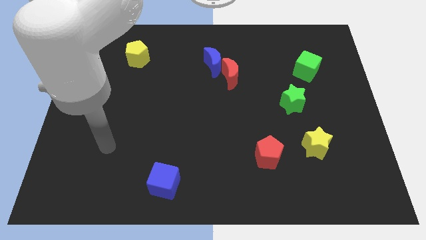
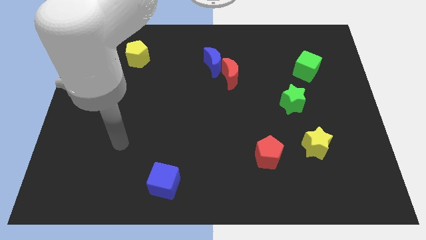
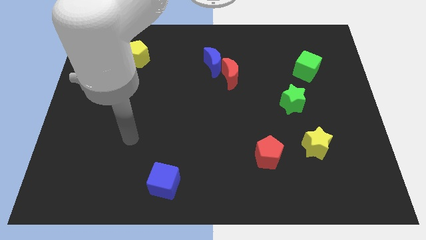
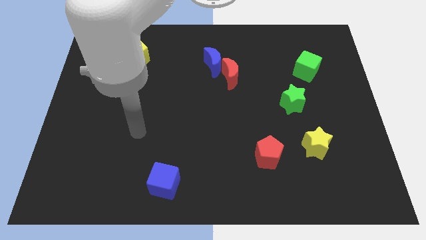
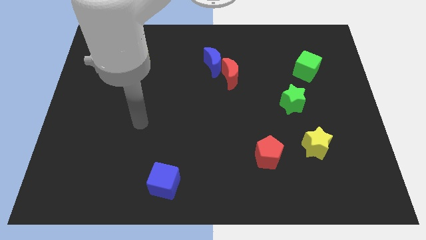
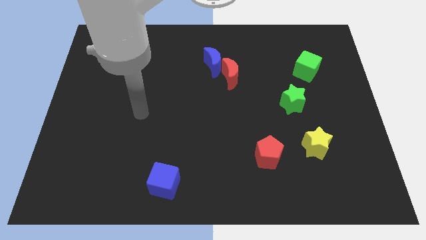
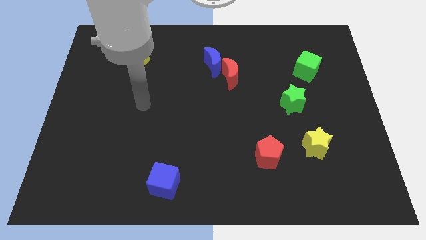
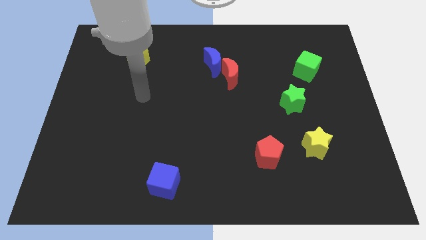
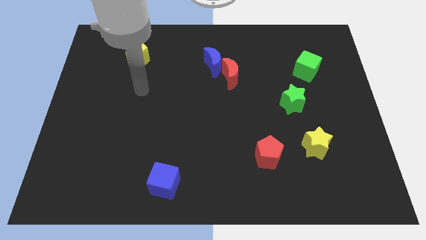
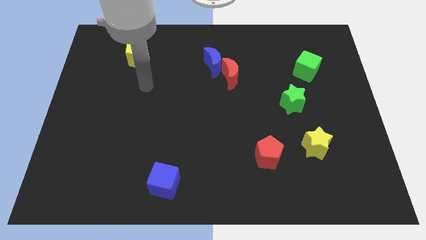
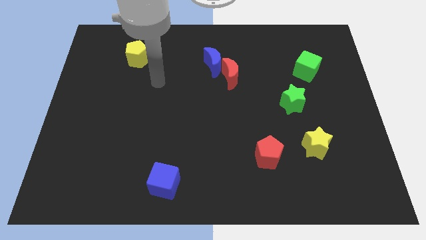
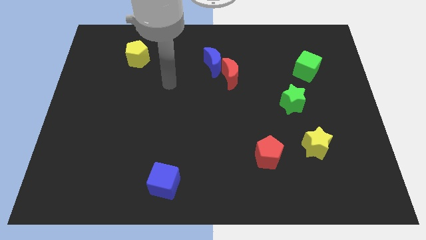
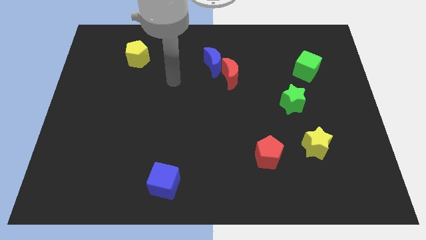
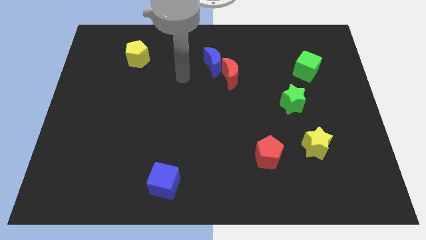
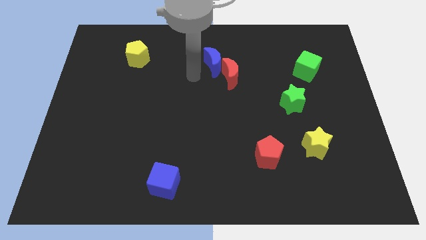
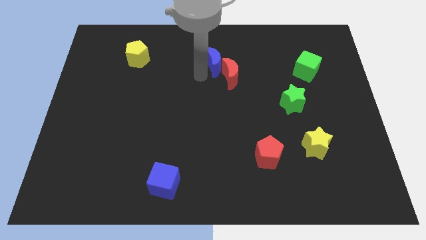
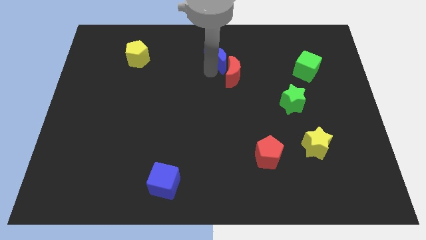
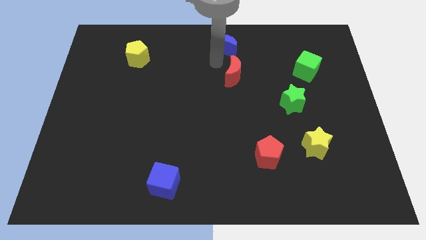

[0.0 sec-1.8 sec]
move the red moon away from the blue moon

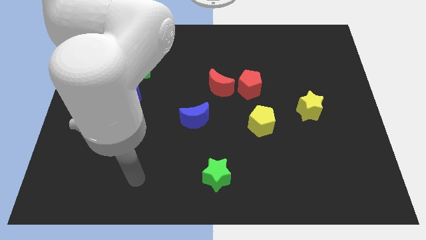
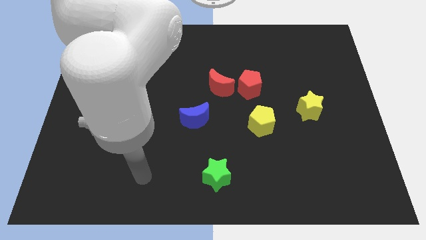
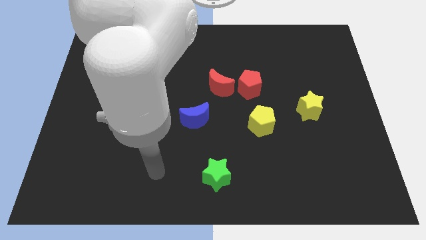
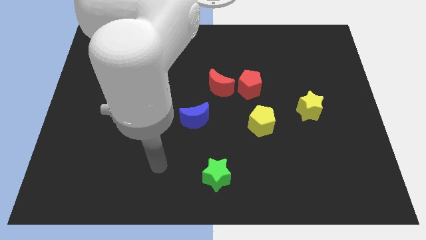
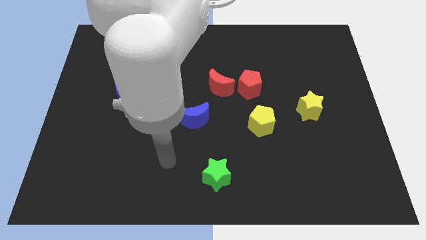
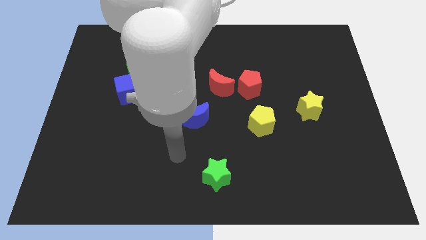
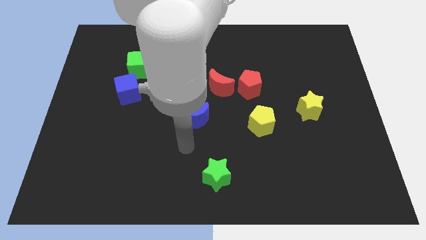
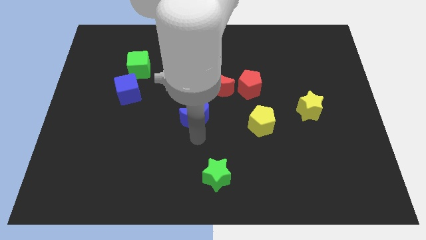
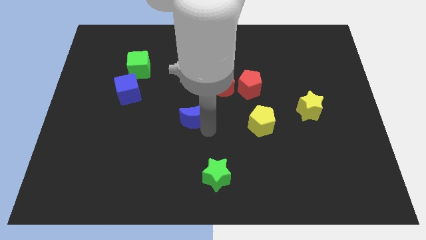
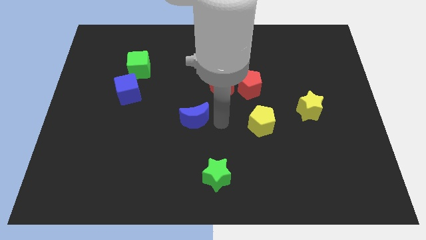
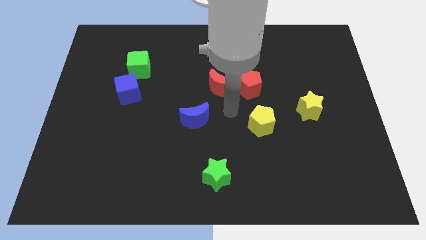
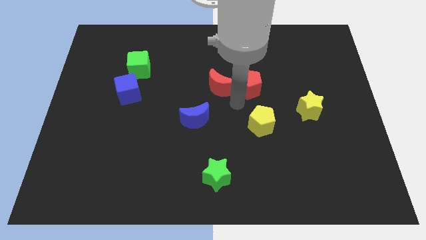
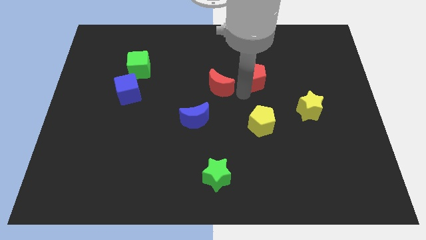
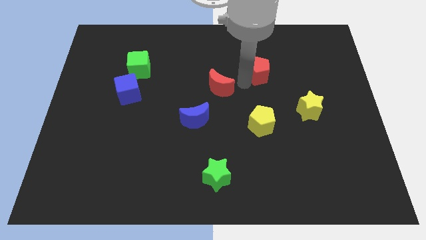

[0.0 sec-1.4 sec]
move the red moon away from the red pentagon

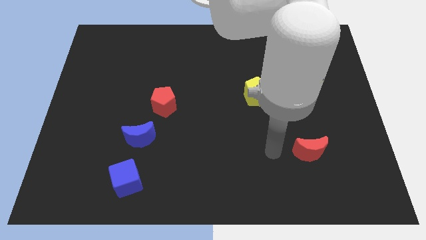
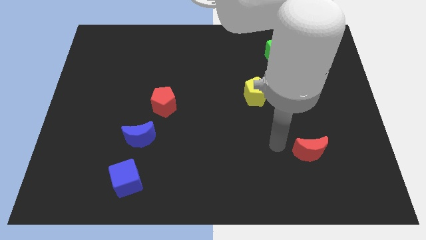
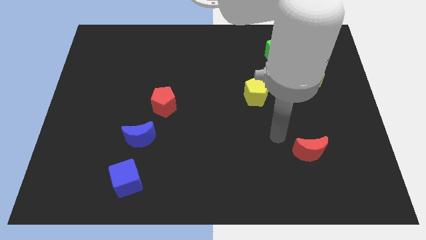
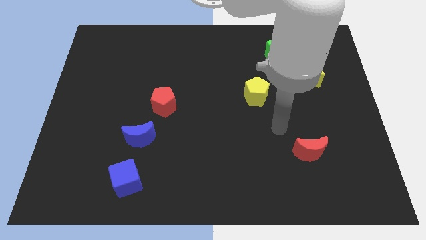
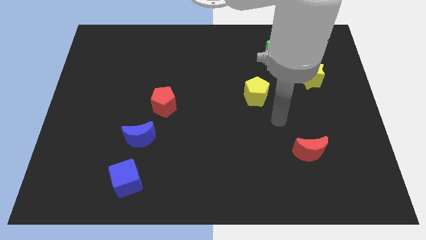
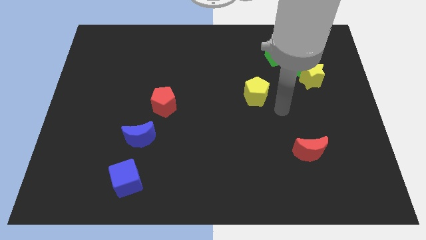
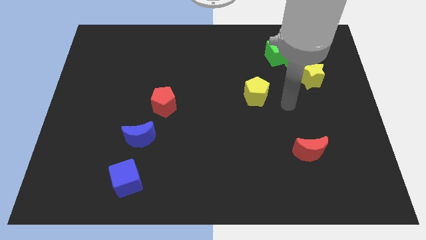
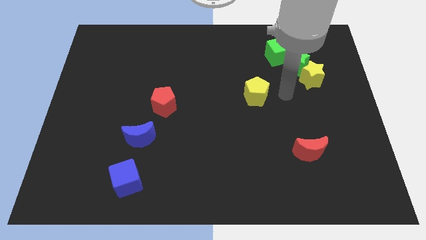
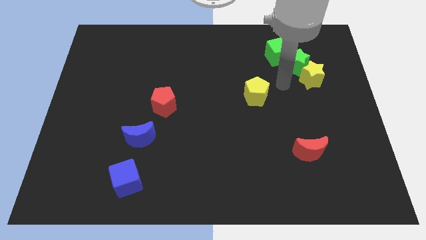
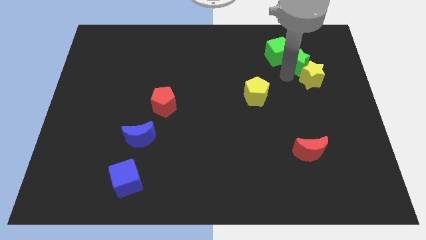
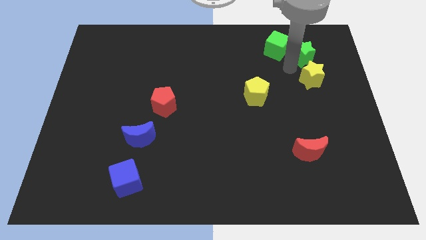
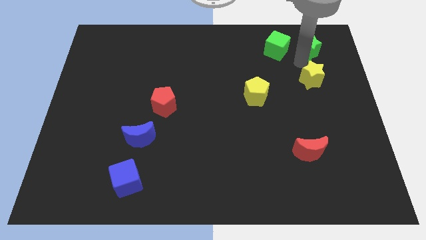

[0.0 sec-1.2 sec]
pull the yellow star apart from the green star

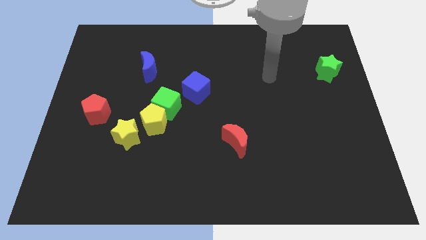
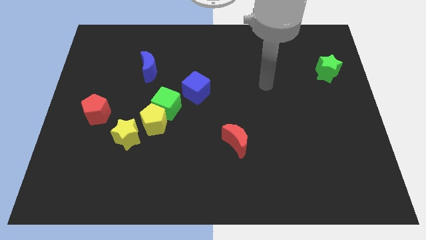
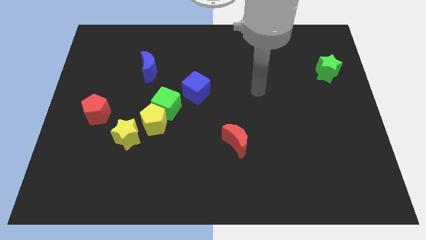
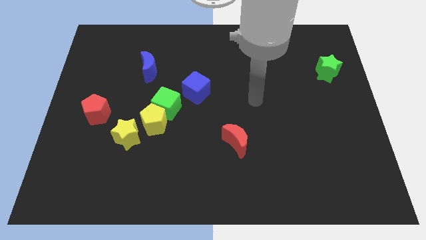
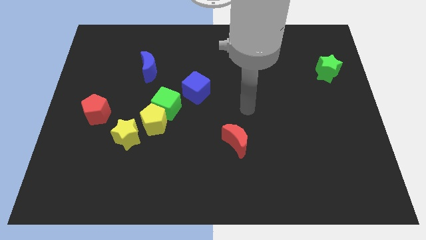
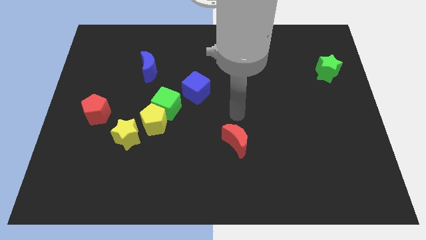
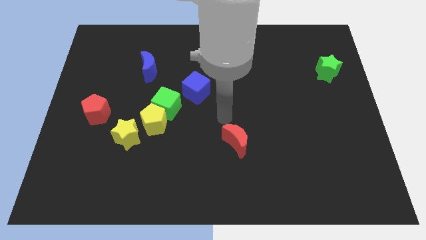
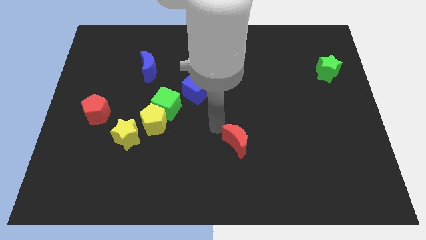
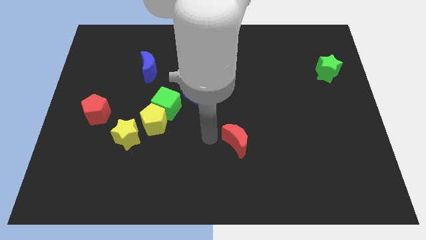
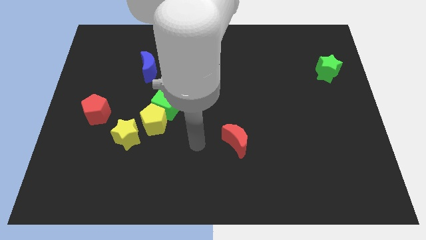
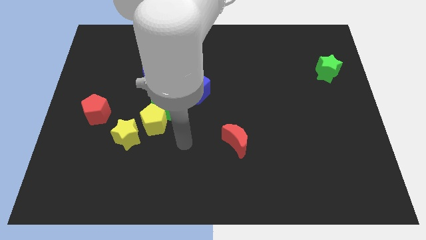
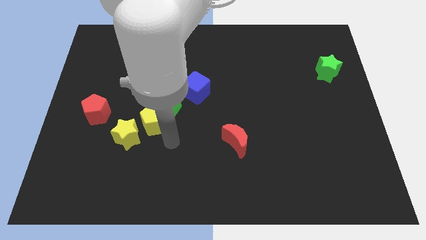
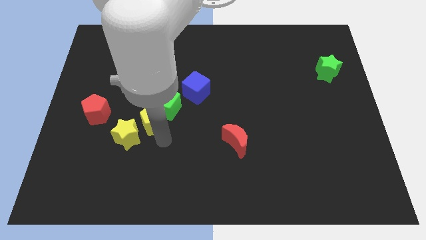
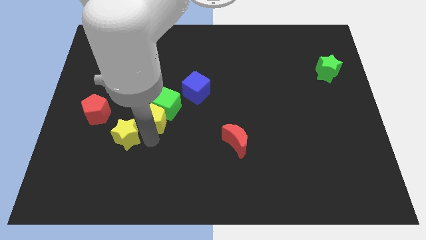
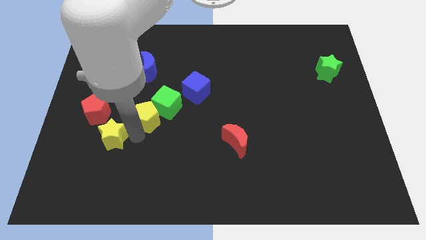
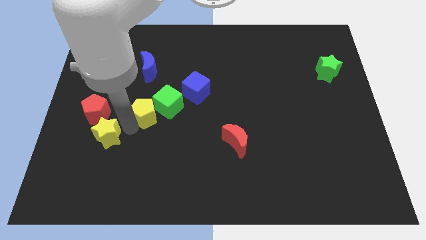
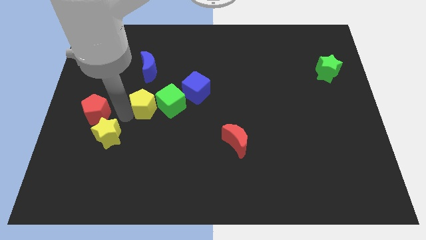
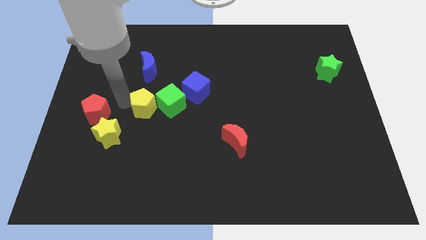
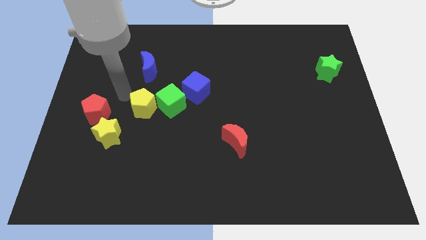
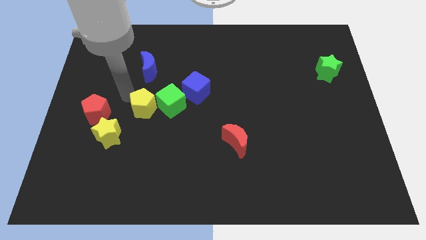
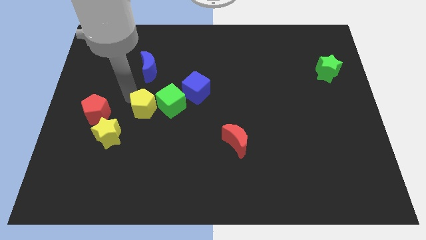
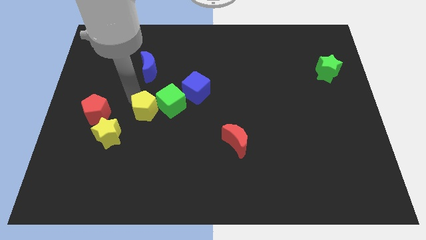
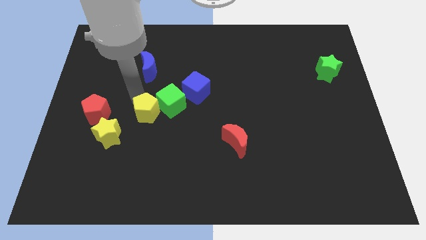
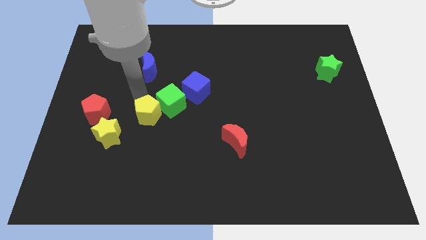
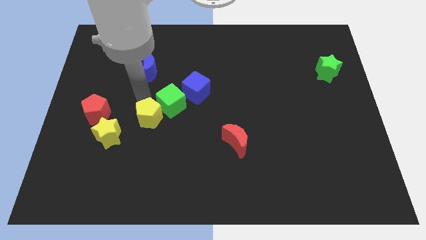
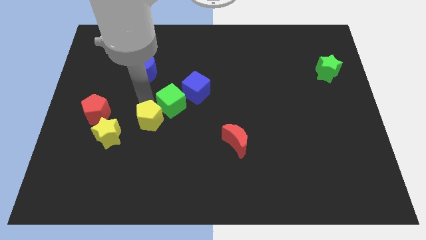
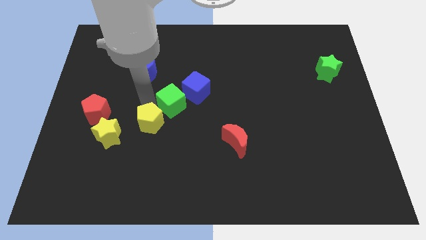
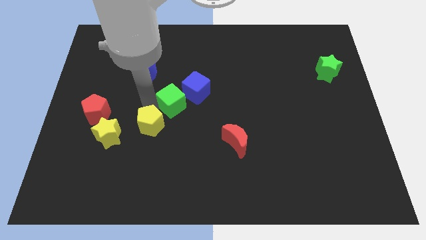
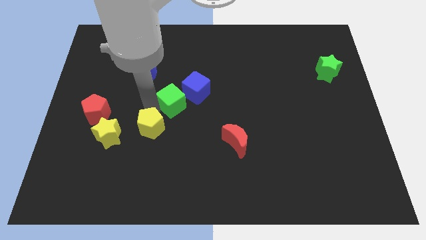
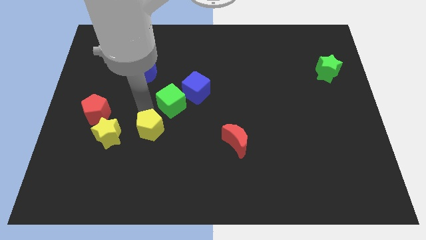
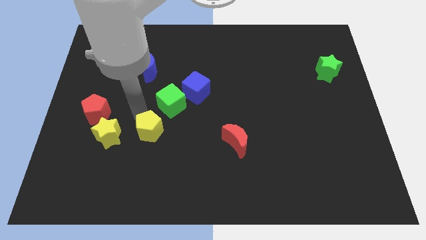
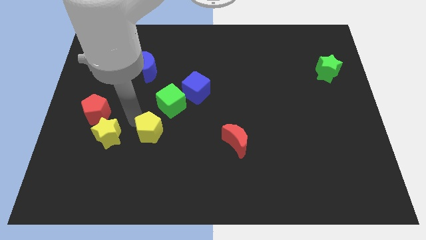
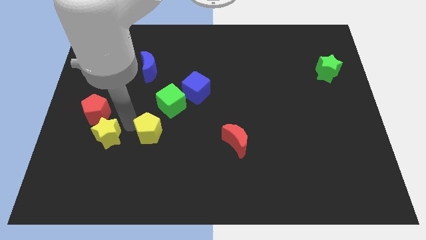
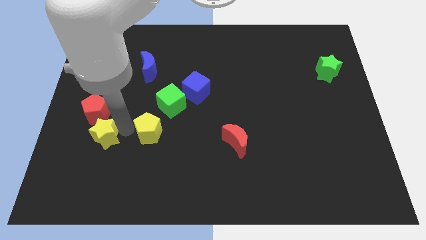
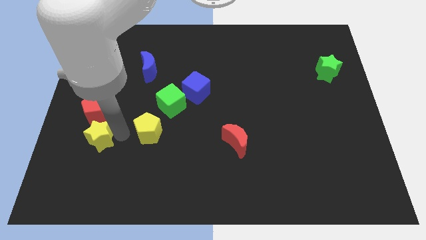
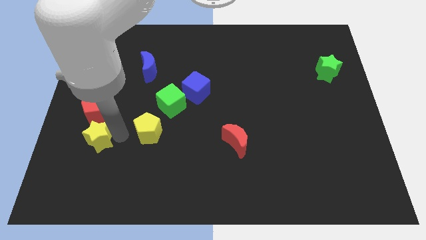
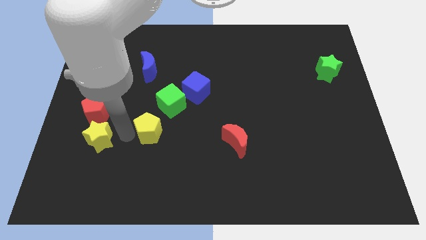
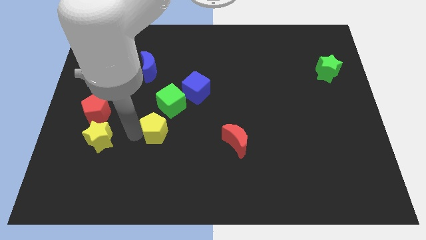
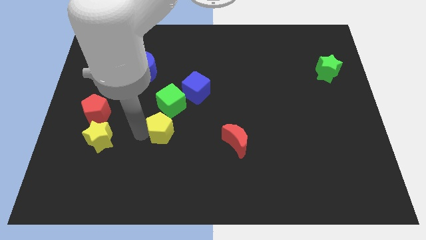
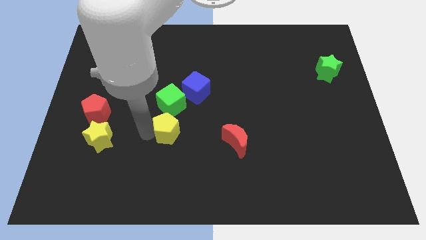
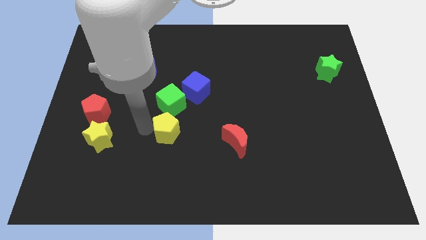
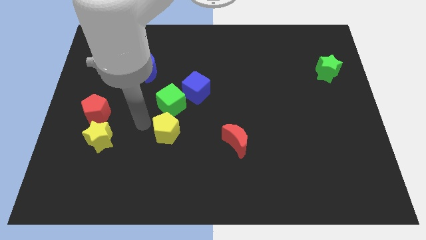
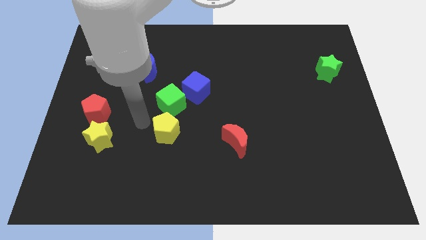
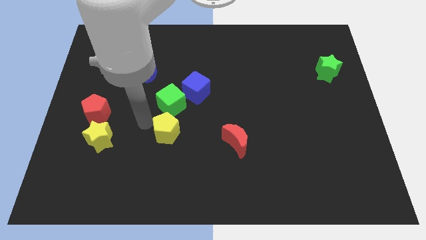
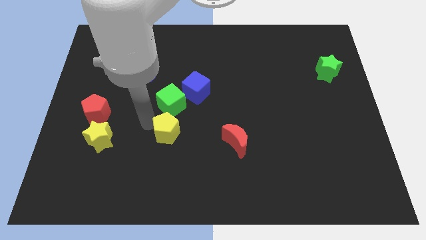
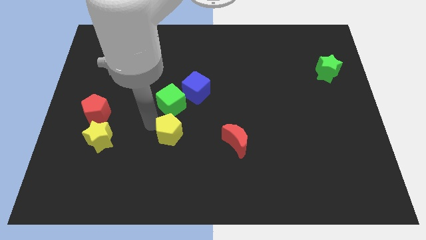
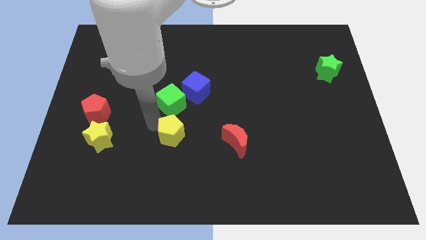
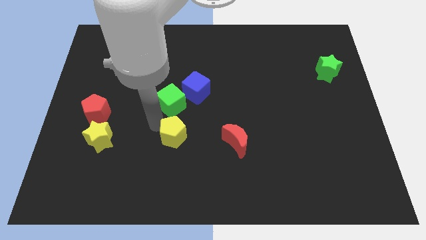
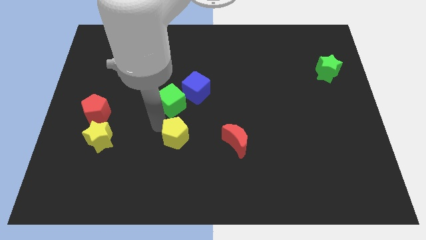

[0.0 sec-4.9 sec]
pull the yellow pentagon apart from the green cube and yellow star

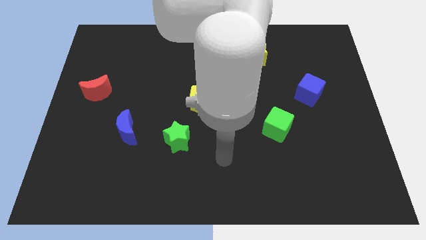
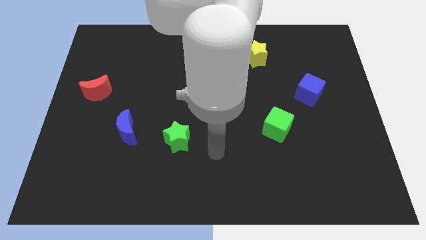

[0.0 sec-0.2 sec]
pull the red pentagon apart from the yellow pentagon
